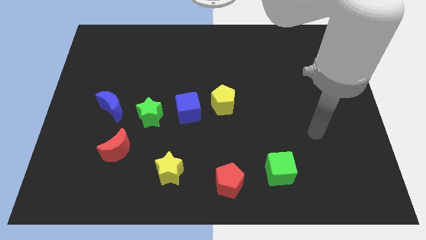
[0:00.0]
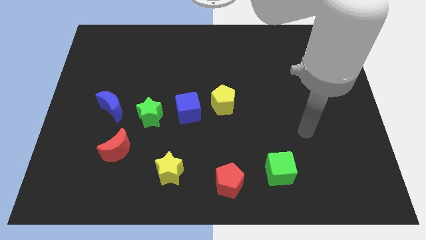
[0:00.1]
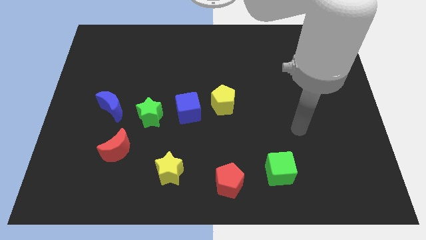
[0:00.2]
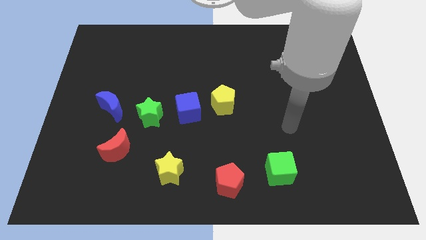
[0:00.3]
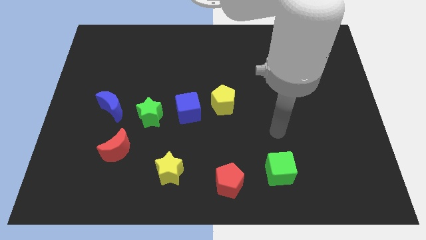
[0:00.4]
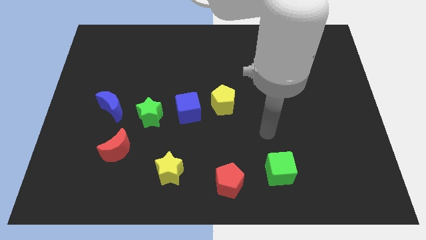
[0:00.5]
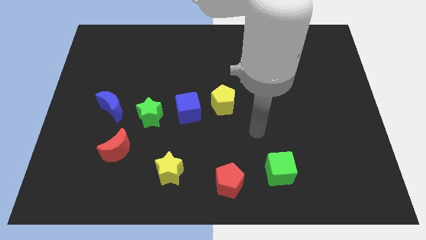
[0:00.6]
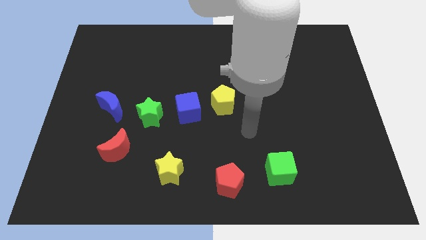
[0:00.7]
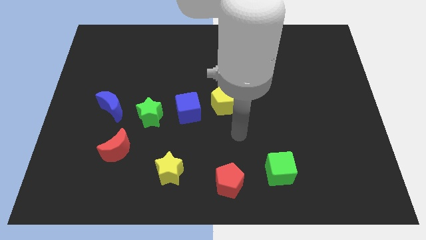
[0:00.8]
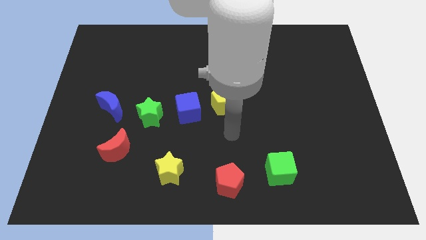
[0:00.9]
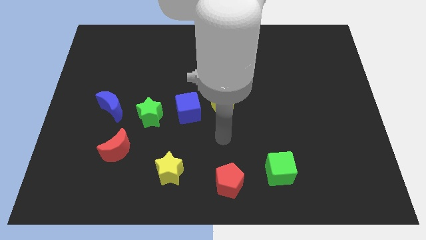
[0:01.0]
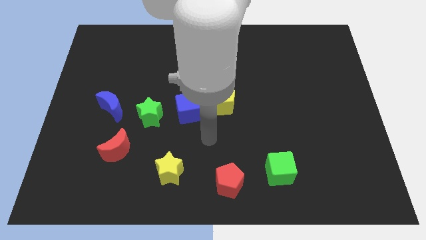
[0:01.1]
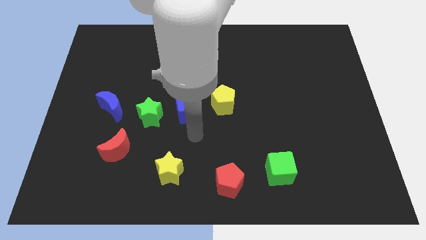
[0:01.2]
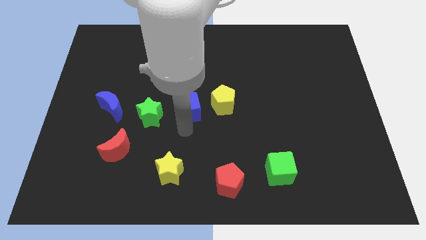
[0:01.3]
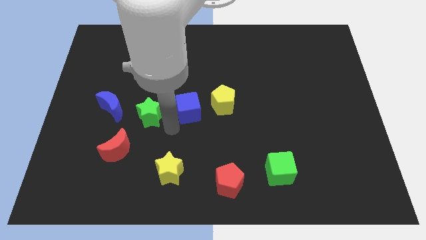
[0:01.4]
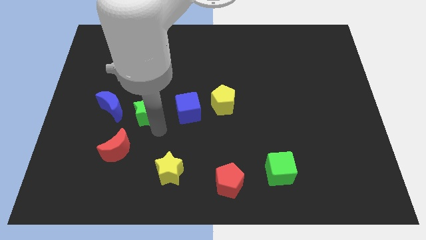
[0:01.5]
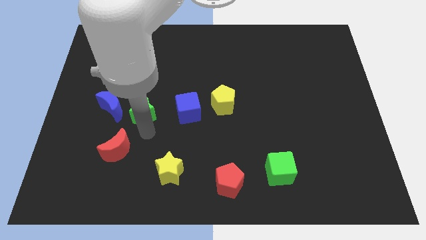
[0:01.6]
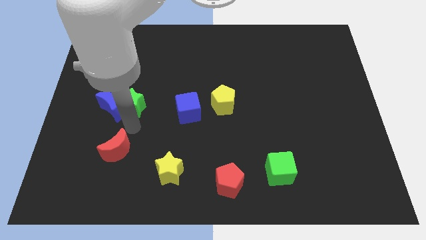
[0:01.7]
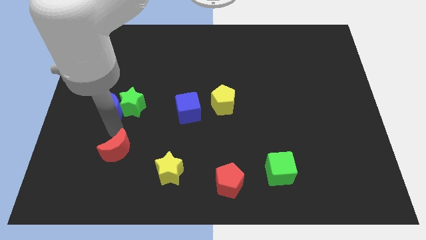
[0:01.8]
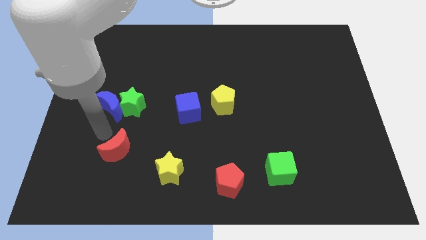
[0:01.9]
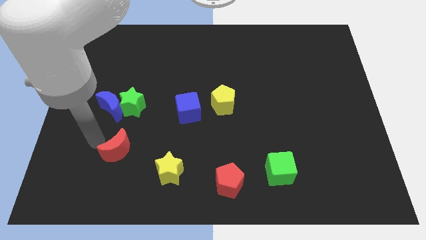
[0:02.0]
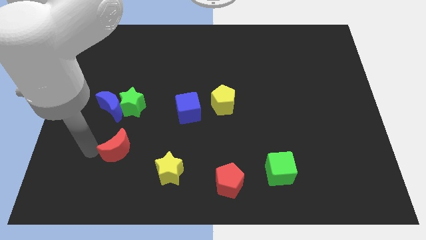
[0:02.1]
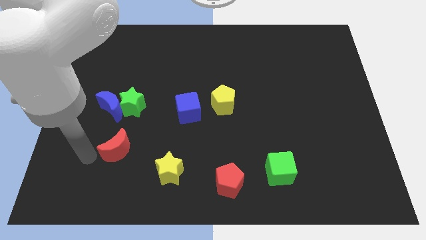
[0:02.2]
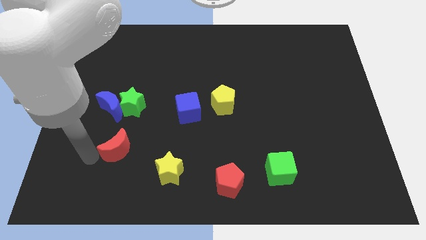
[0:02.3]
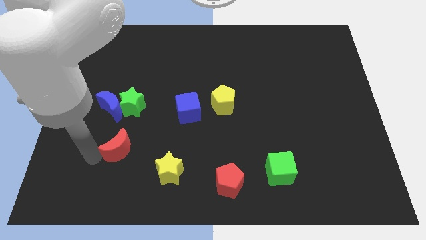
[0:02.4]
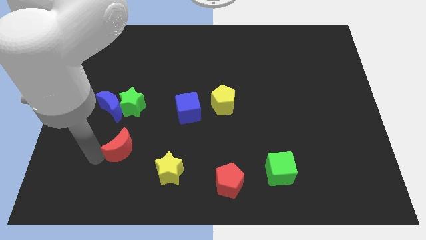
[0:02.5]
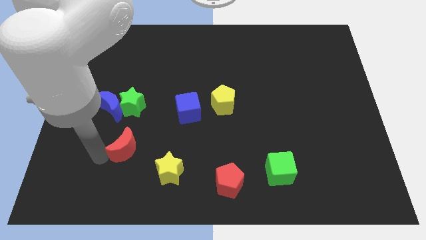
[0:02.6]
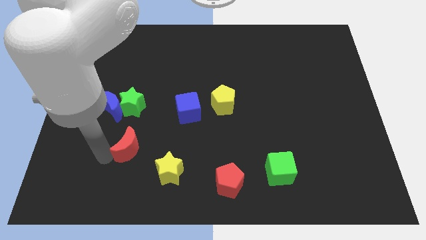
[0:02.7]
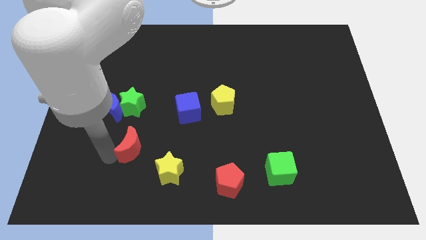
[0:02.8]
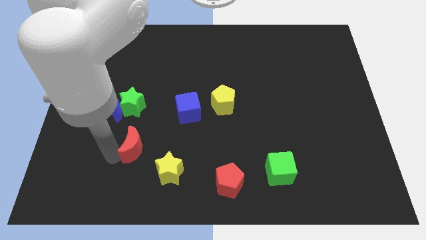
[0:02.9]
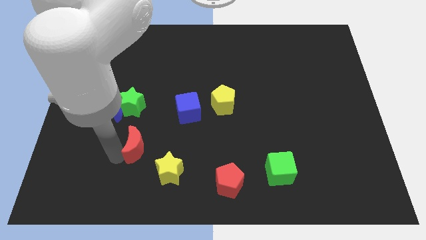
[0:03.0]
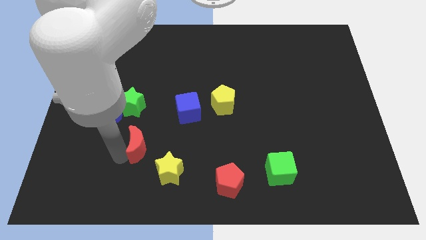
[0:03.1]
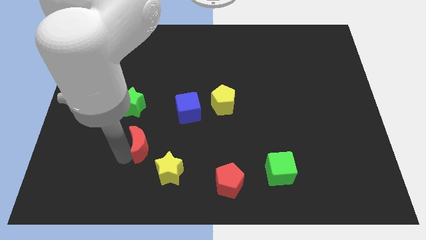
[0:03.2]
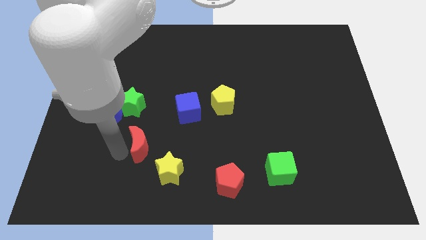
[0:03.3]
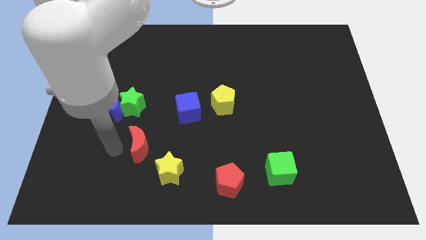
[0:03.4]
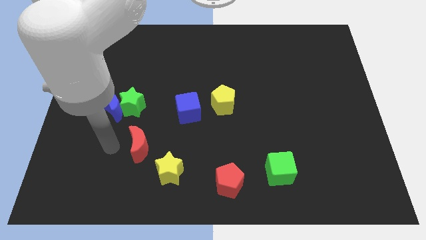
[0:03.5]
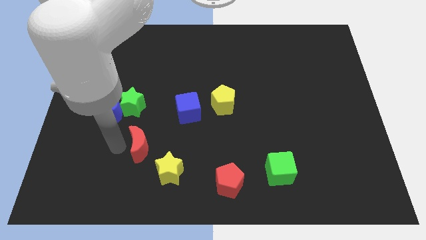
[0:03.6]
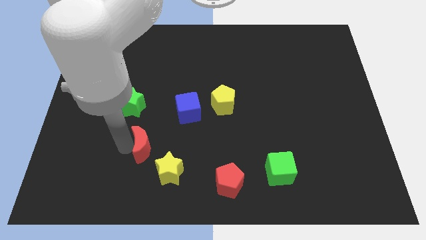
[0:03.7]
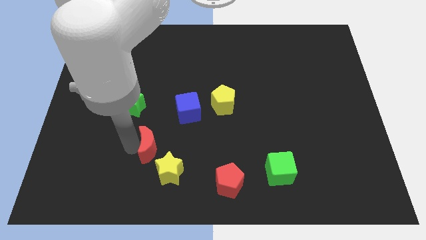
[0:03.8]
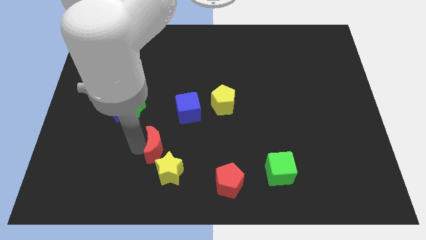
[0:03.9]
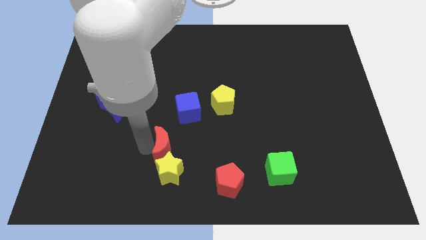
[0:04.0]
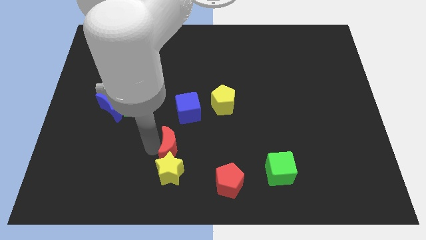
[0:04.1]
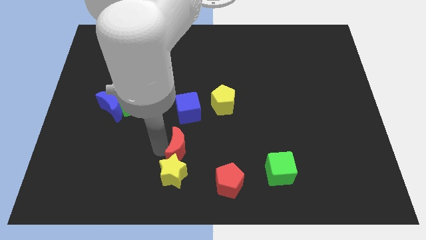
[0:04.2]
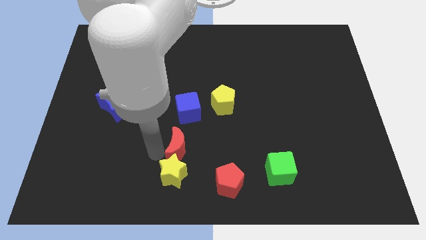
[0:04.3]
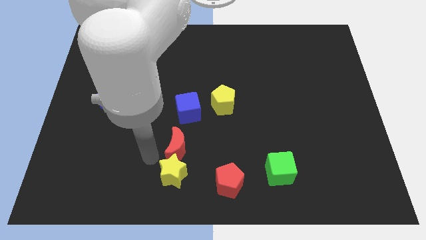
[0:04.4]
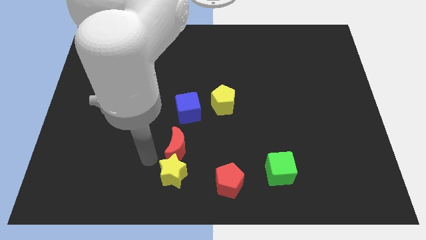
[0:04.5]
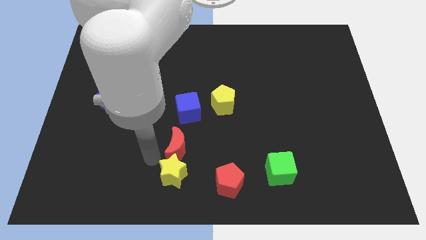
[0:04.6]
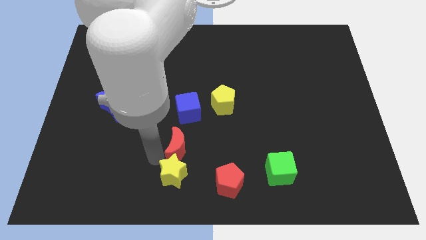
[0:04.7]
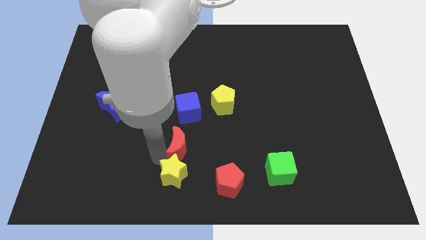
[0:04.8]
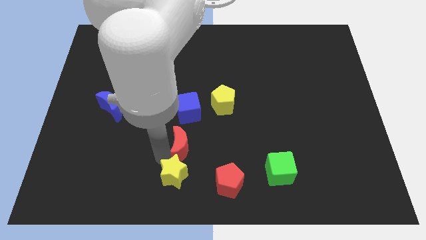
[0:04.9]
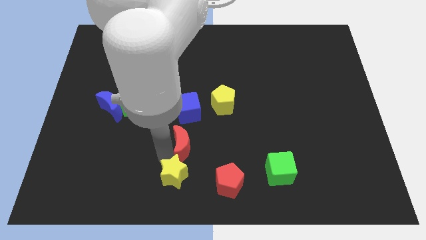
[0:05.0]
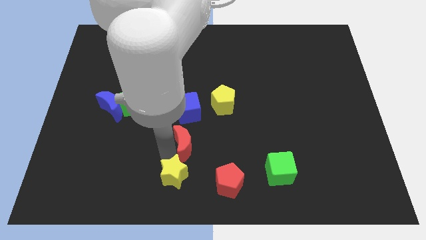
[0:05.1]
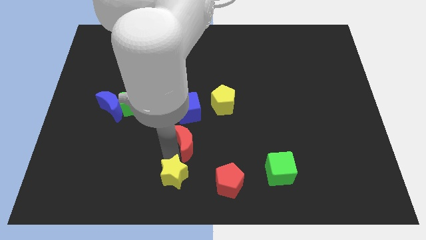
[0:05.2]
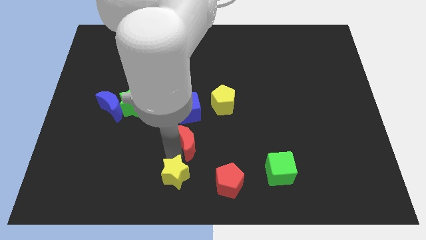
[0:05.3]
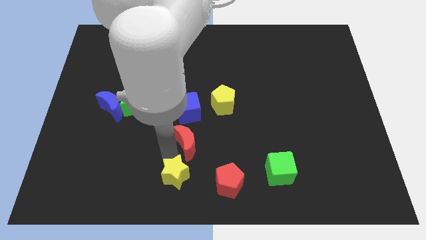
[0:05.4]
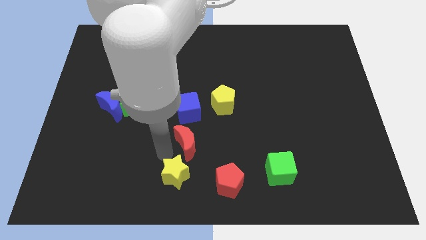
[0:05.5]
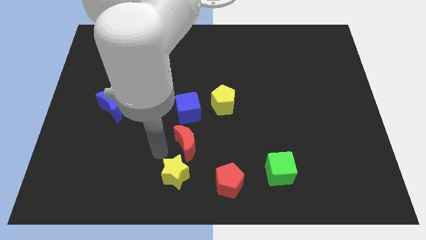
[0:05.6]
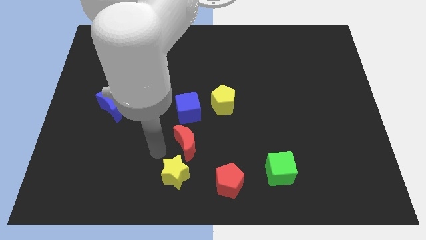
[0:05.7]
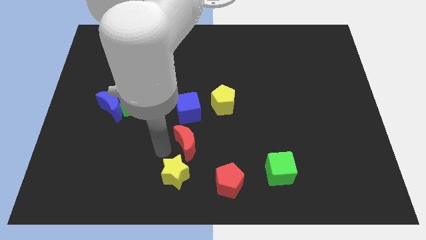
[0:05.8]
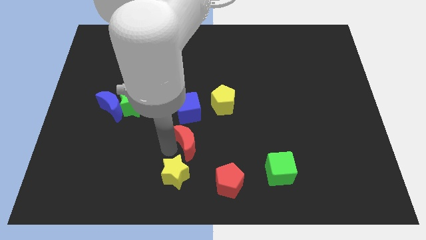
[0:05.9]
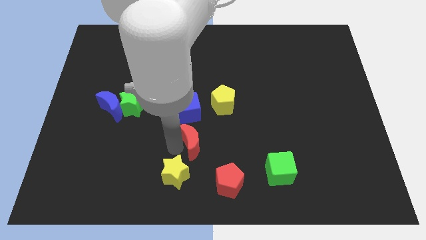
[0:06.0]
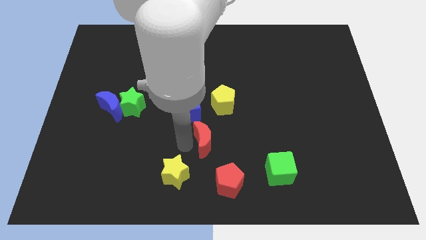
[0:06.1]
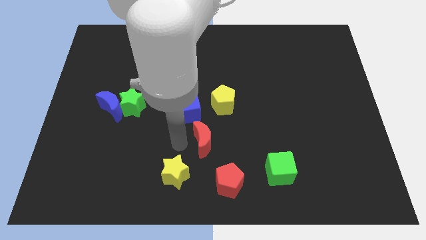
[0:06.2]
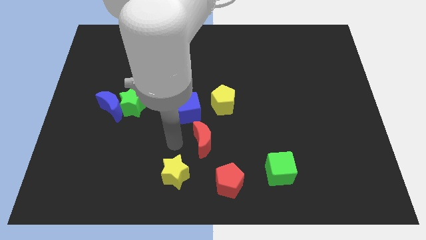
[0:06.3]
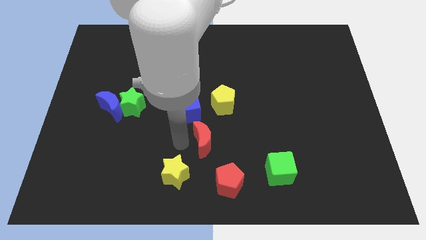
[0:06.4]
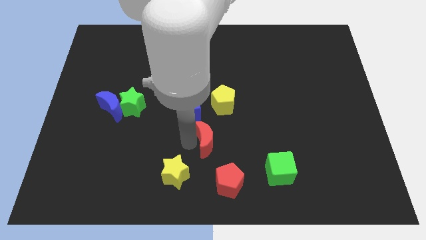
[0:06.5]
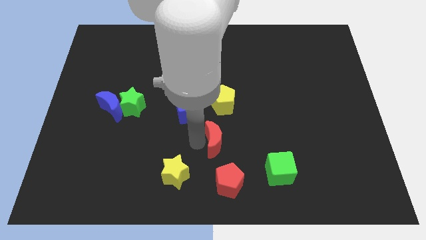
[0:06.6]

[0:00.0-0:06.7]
push the red moon to the right

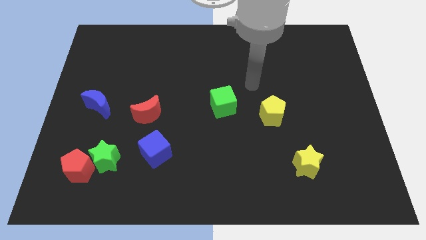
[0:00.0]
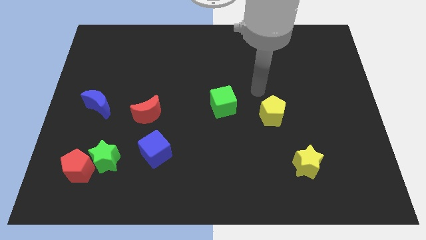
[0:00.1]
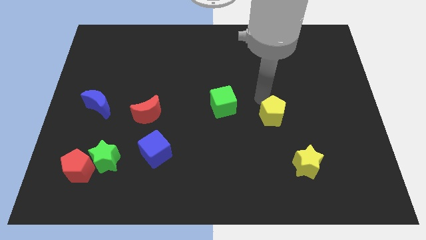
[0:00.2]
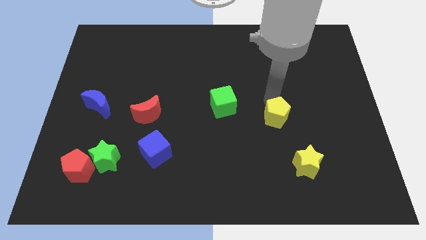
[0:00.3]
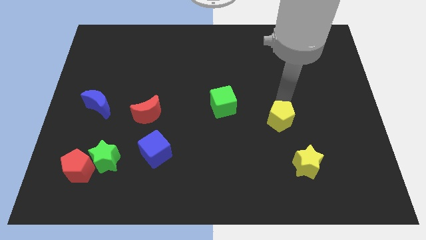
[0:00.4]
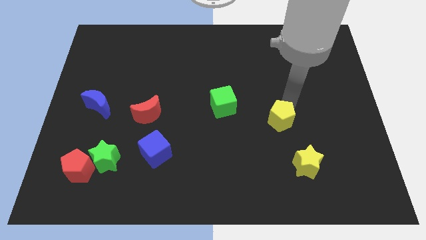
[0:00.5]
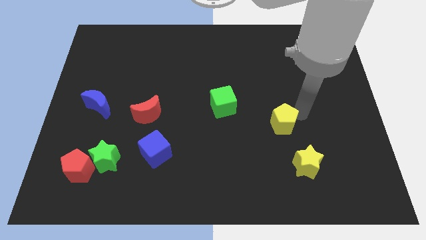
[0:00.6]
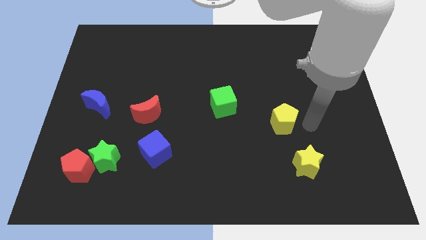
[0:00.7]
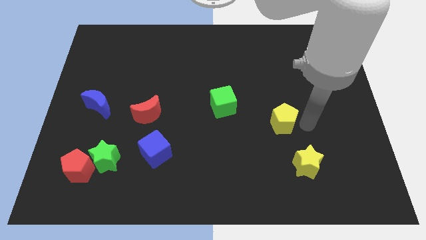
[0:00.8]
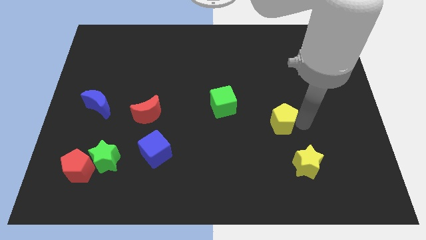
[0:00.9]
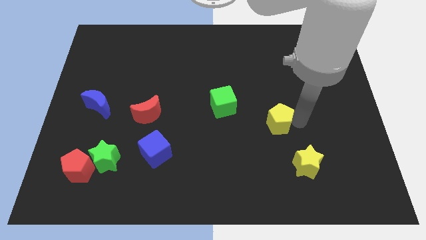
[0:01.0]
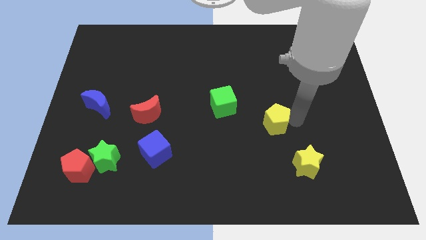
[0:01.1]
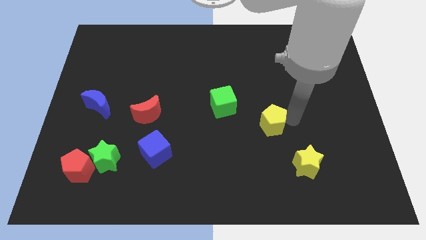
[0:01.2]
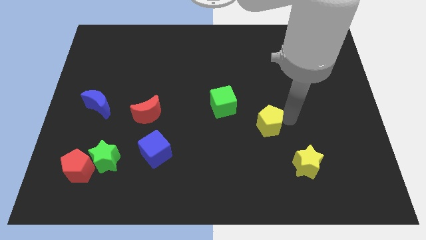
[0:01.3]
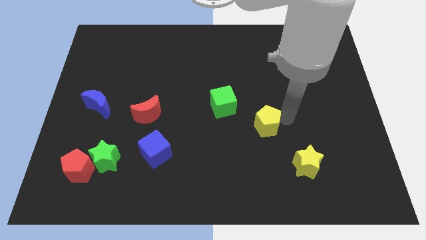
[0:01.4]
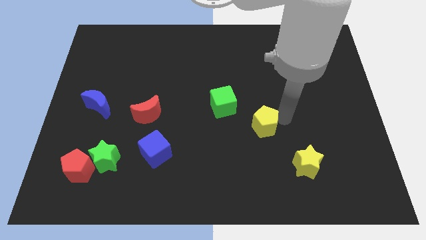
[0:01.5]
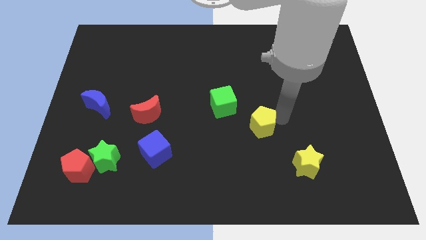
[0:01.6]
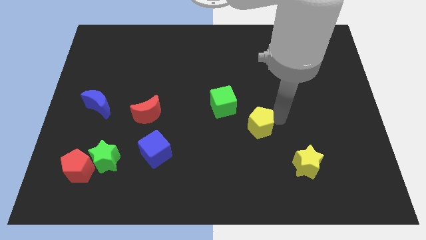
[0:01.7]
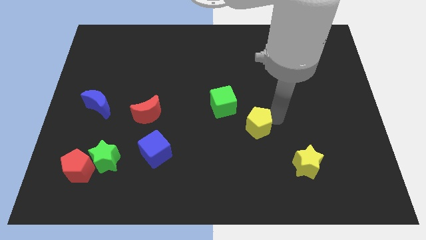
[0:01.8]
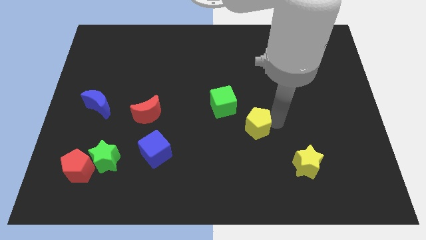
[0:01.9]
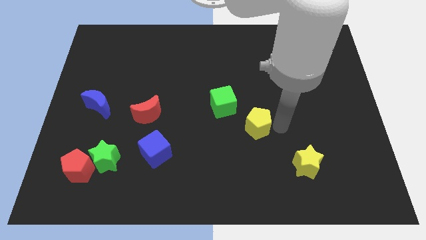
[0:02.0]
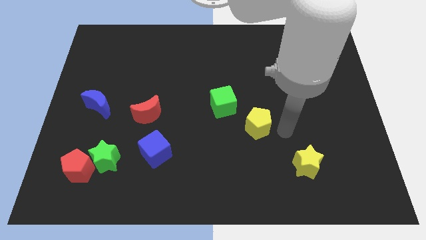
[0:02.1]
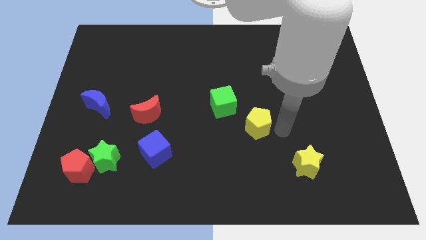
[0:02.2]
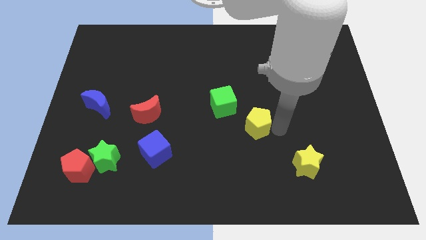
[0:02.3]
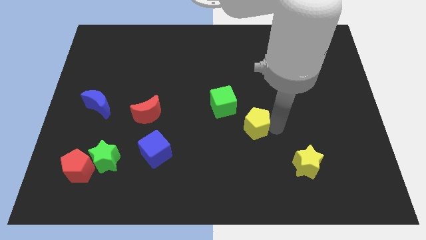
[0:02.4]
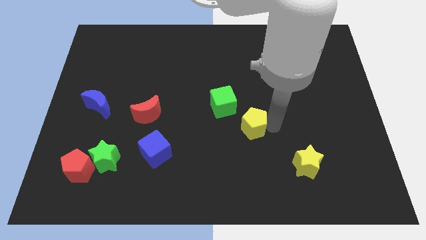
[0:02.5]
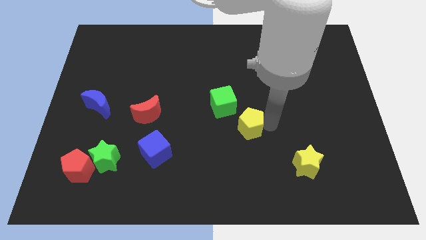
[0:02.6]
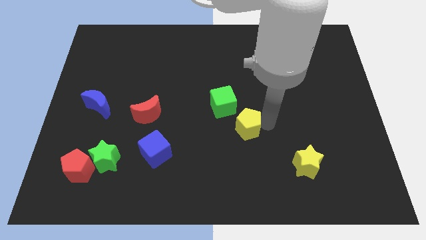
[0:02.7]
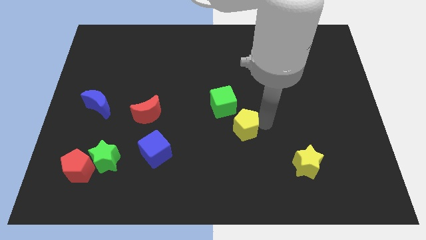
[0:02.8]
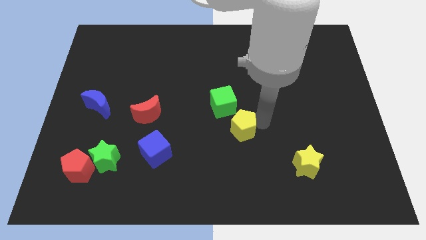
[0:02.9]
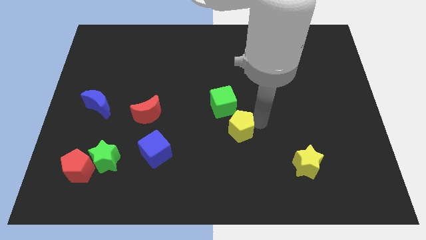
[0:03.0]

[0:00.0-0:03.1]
slightly push the yellow pentagon left
